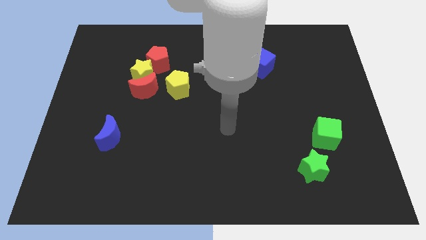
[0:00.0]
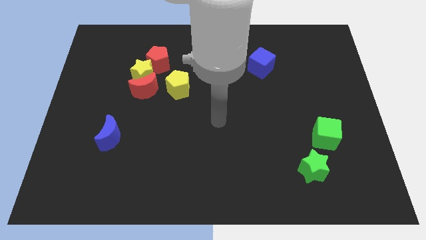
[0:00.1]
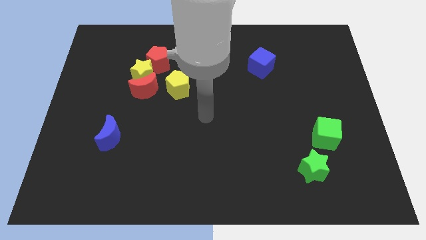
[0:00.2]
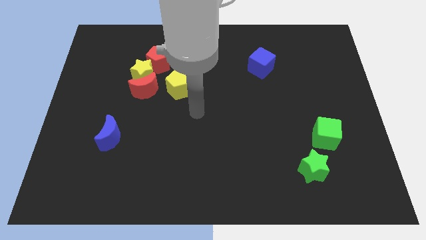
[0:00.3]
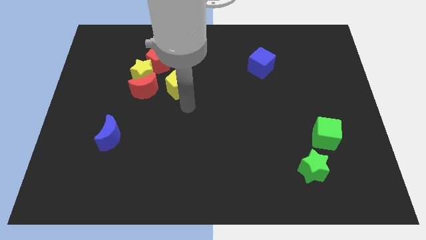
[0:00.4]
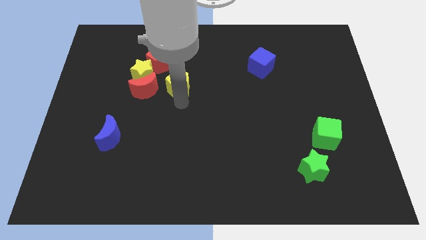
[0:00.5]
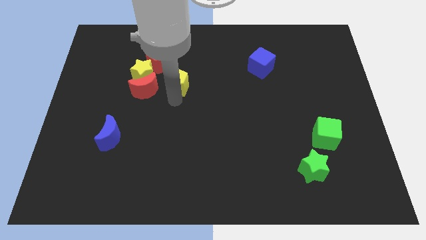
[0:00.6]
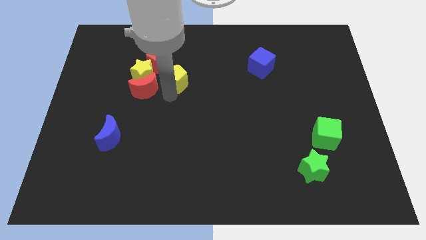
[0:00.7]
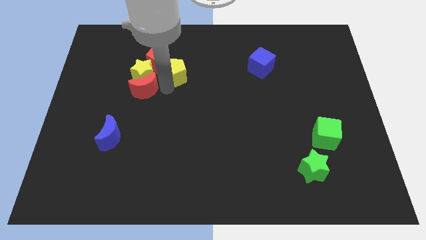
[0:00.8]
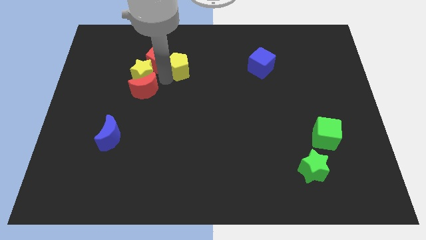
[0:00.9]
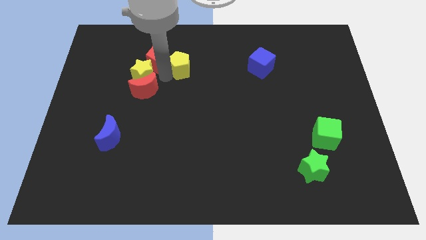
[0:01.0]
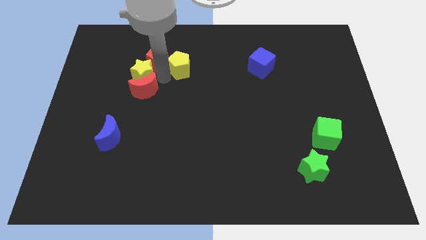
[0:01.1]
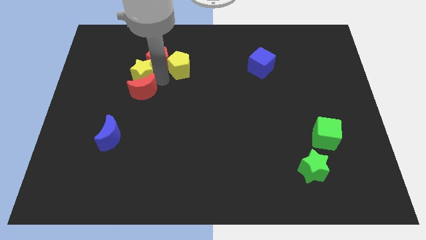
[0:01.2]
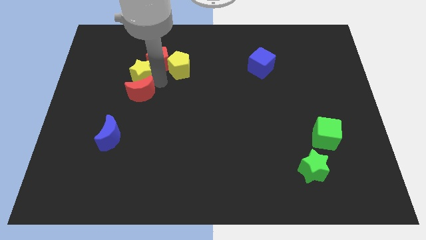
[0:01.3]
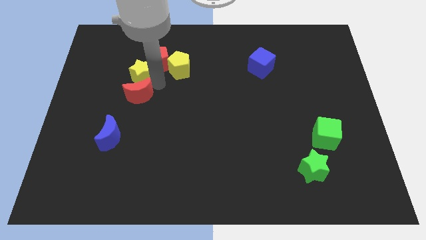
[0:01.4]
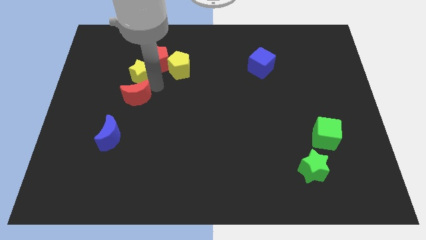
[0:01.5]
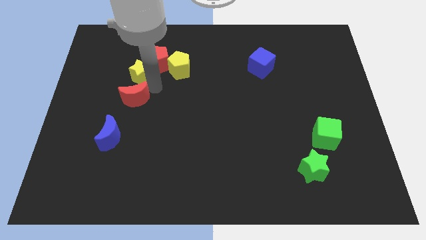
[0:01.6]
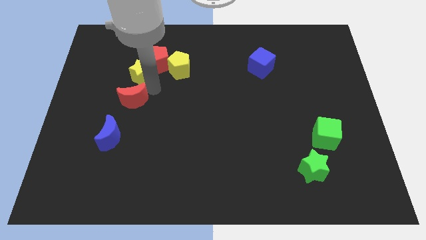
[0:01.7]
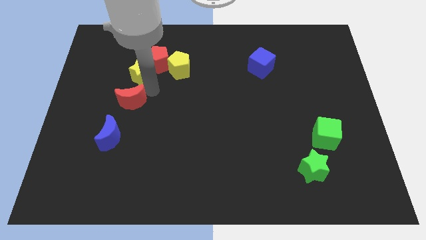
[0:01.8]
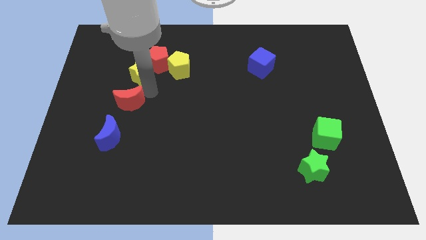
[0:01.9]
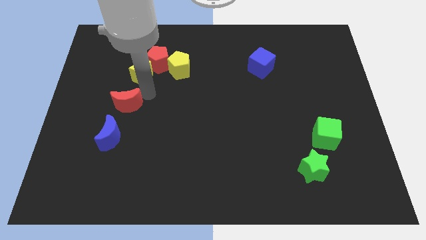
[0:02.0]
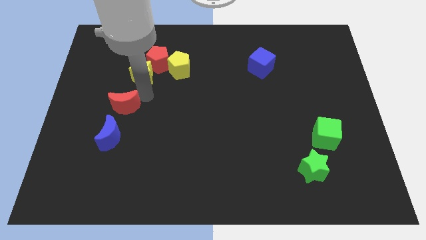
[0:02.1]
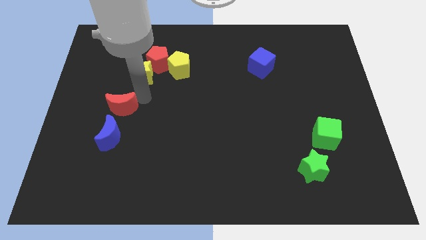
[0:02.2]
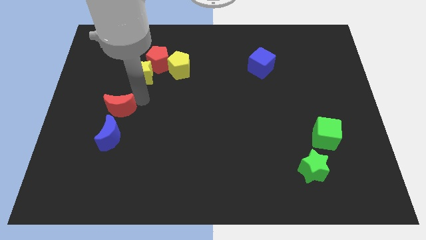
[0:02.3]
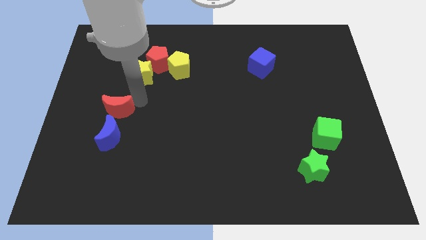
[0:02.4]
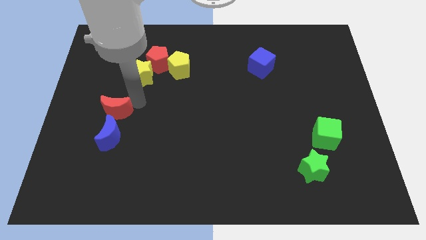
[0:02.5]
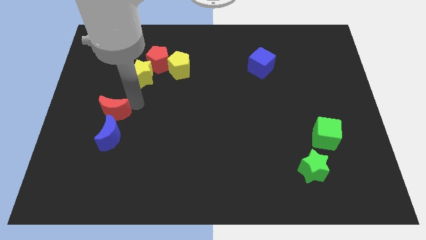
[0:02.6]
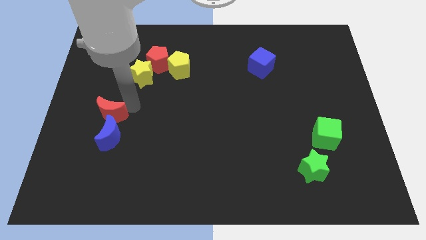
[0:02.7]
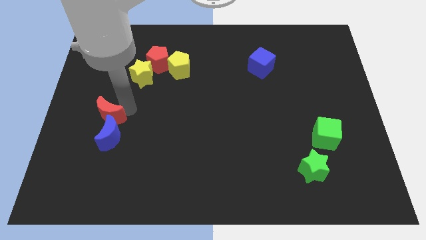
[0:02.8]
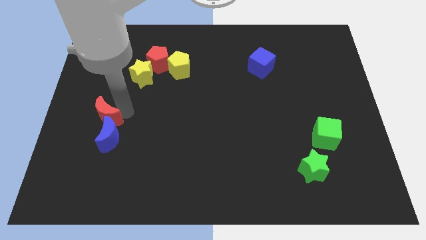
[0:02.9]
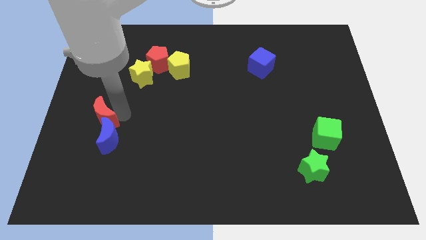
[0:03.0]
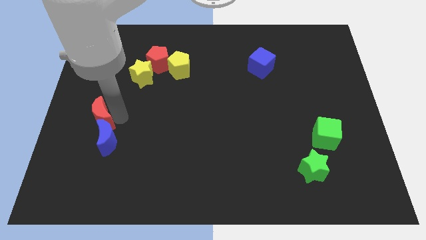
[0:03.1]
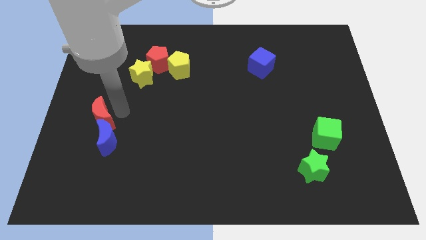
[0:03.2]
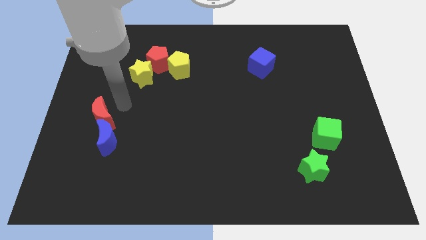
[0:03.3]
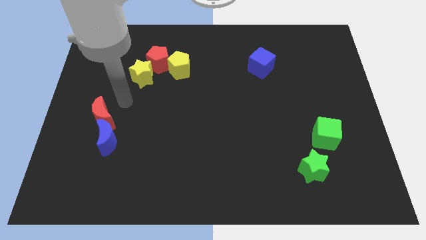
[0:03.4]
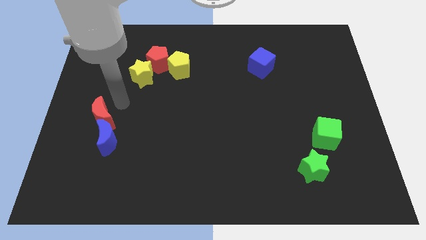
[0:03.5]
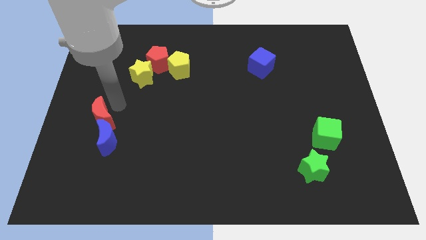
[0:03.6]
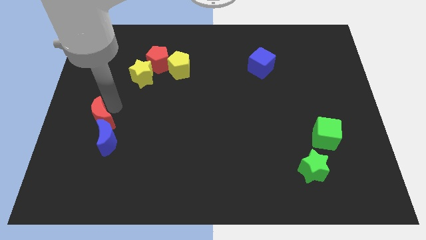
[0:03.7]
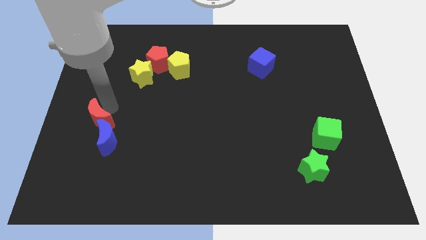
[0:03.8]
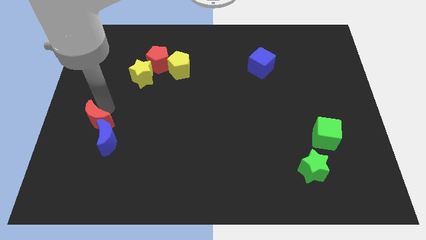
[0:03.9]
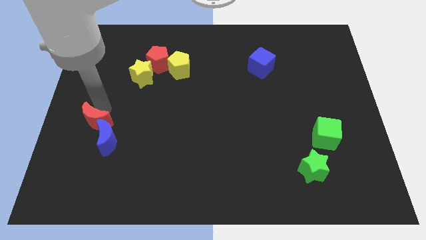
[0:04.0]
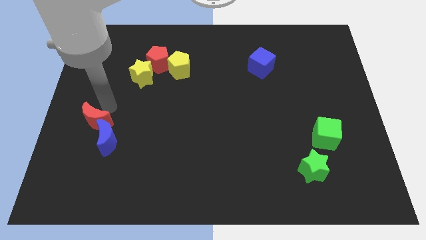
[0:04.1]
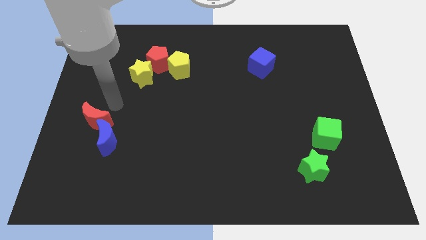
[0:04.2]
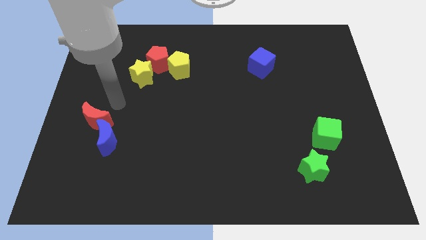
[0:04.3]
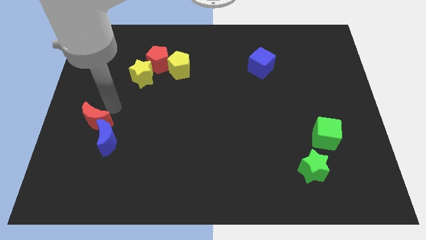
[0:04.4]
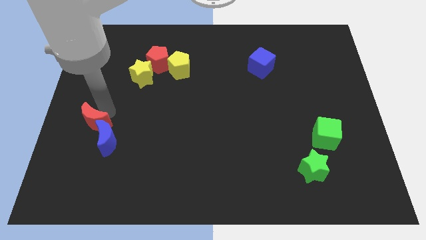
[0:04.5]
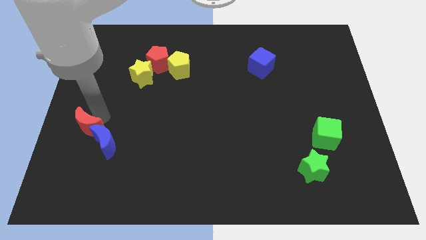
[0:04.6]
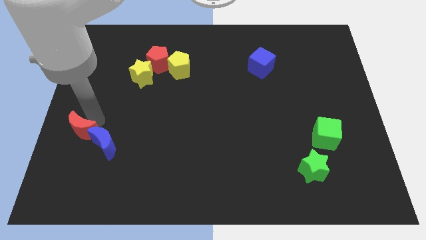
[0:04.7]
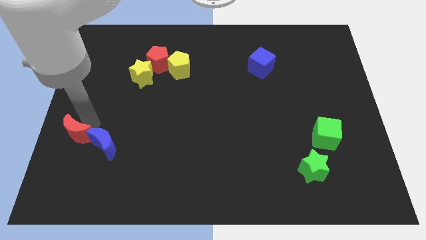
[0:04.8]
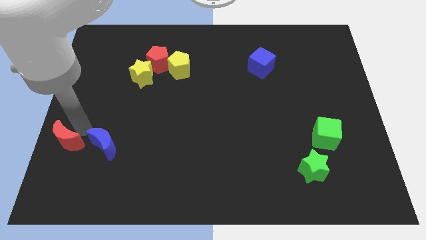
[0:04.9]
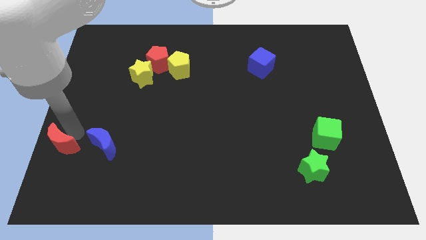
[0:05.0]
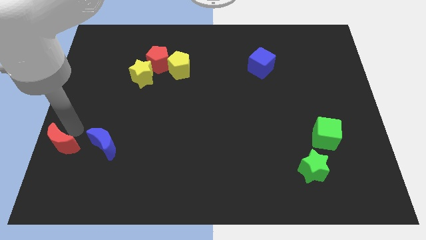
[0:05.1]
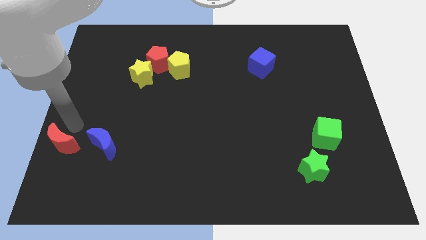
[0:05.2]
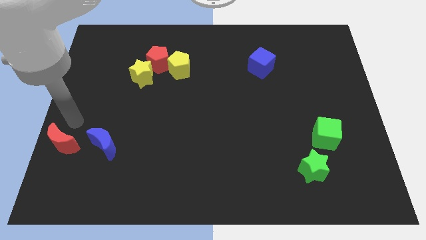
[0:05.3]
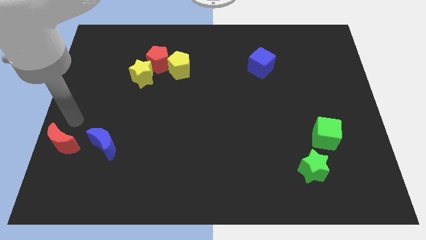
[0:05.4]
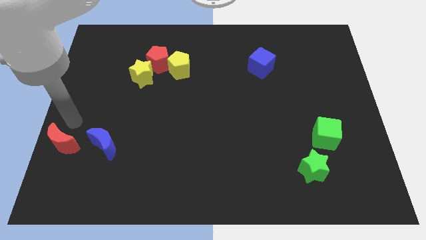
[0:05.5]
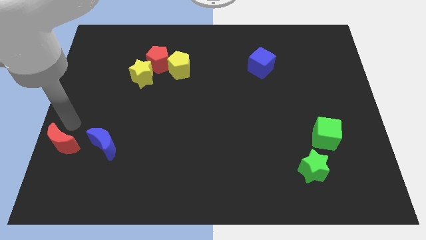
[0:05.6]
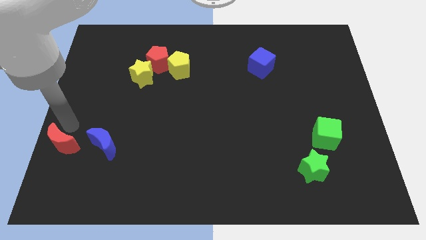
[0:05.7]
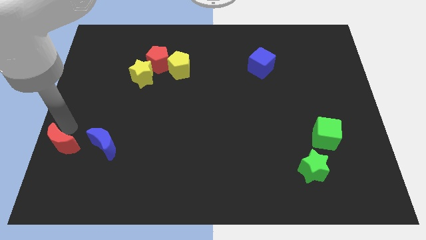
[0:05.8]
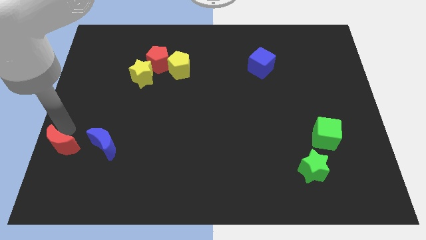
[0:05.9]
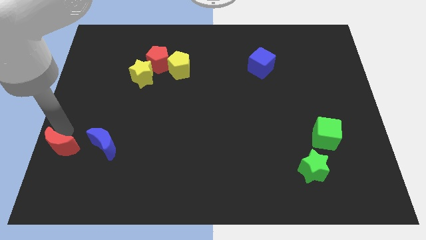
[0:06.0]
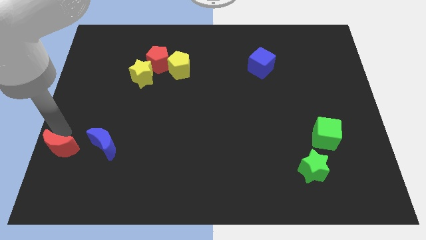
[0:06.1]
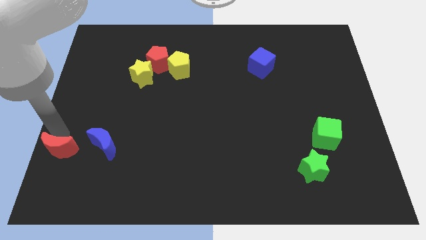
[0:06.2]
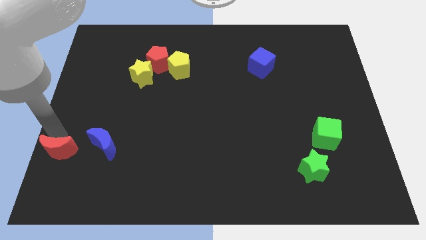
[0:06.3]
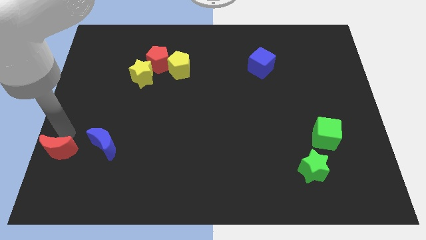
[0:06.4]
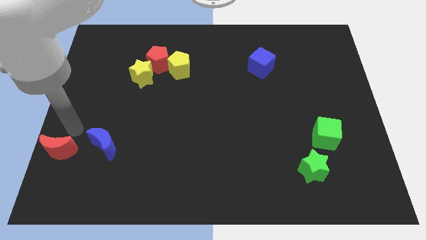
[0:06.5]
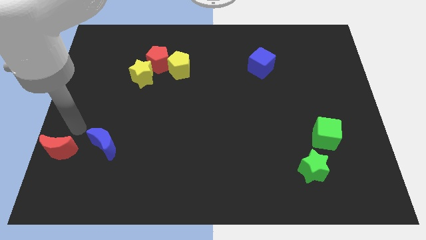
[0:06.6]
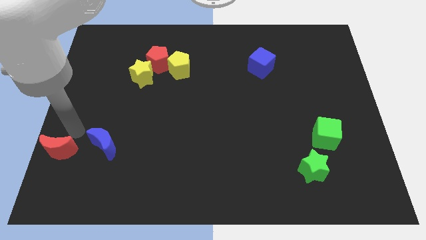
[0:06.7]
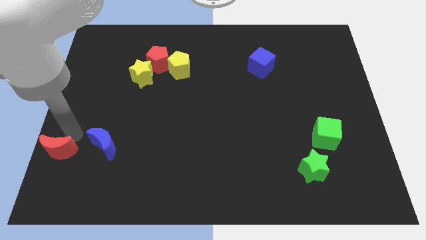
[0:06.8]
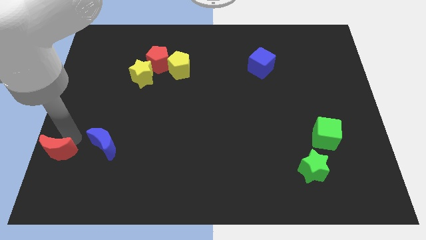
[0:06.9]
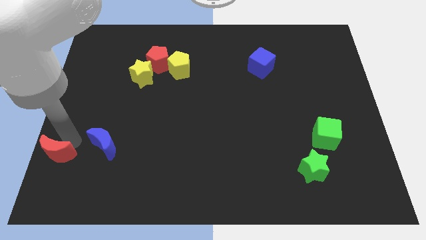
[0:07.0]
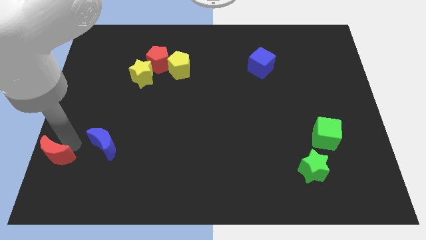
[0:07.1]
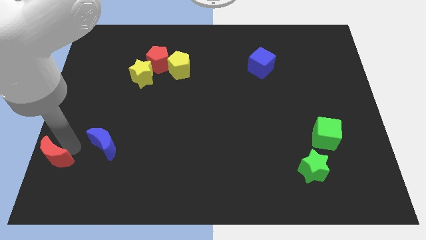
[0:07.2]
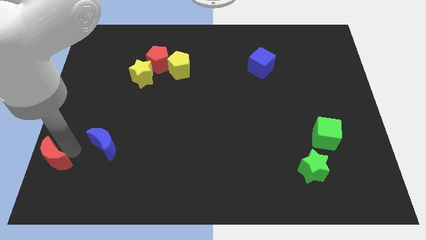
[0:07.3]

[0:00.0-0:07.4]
push the red moon to the bottom left
